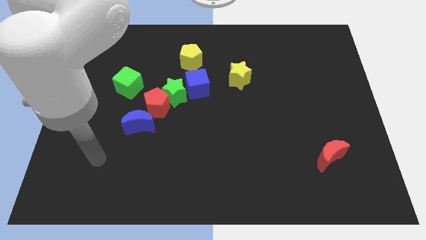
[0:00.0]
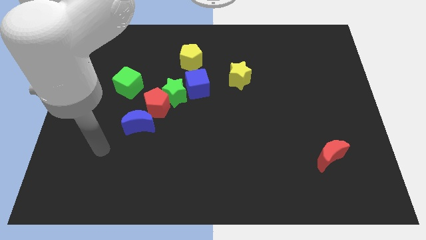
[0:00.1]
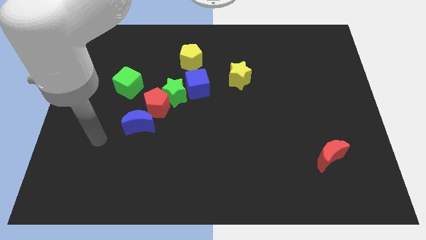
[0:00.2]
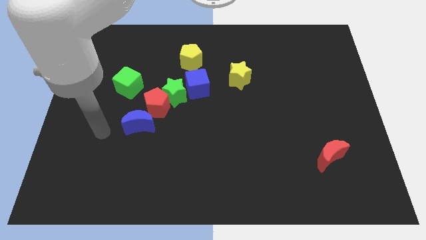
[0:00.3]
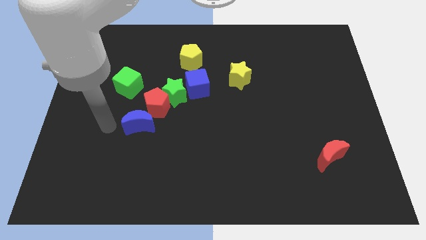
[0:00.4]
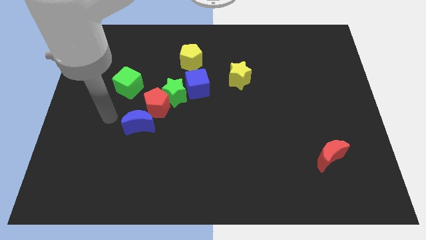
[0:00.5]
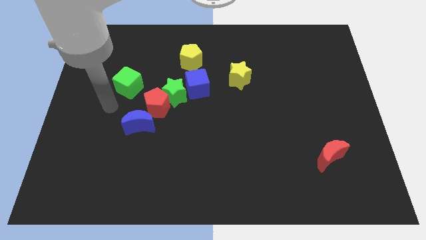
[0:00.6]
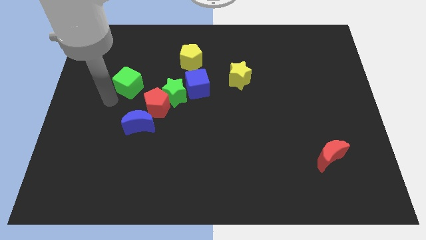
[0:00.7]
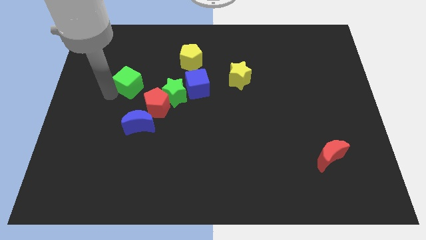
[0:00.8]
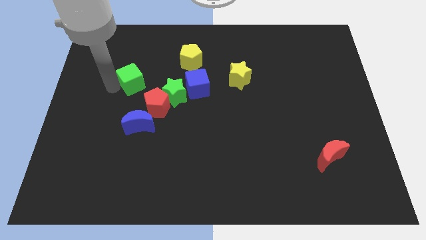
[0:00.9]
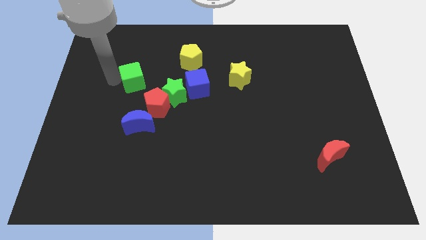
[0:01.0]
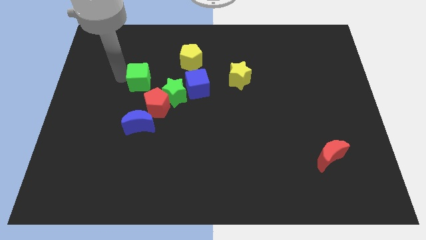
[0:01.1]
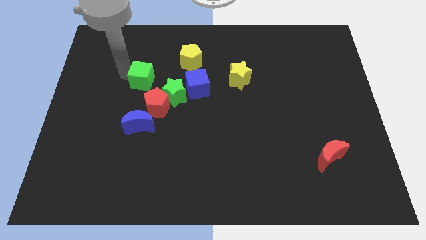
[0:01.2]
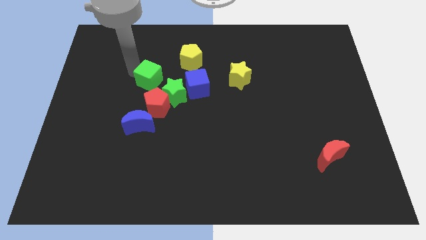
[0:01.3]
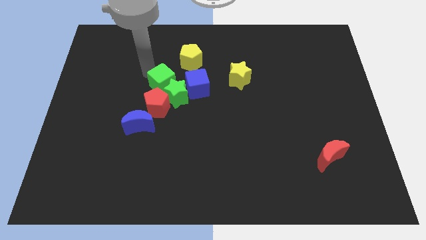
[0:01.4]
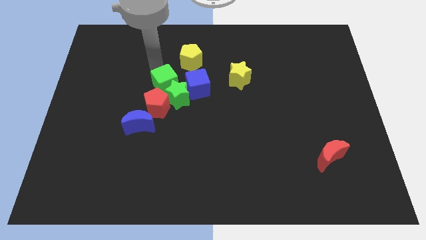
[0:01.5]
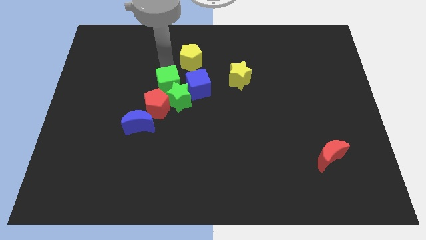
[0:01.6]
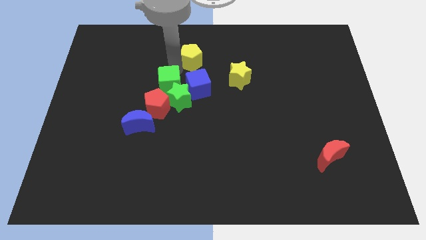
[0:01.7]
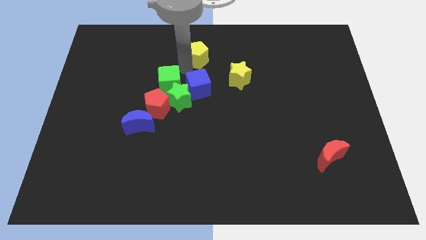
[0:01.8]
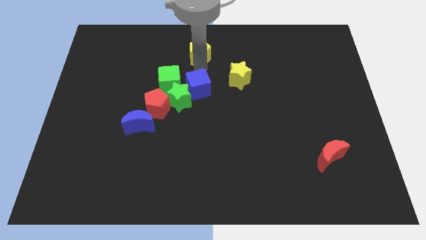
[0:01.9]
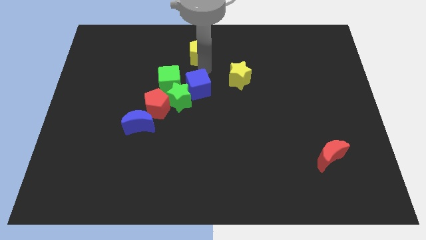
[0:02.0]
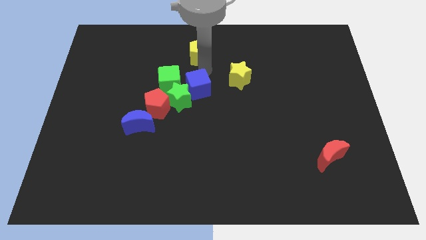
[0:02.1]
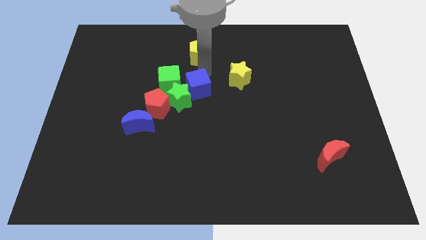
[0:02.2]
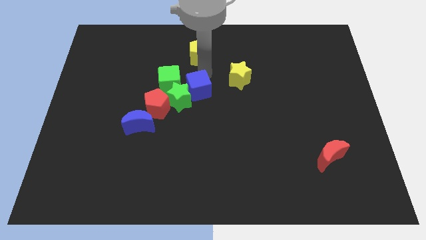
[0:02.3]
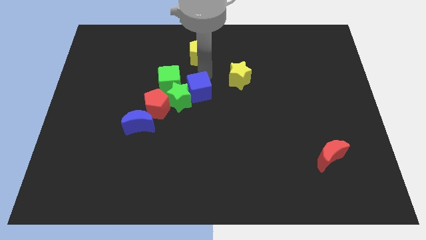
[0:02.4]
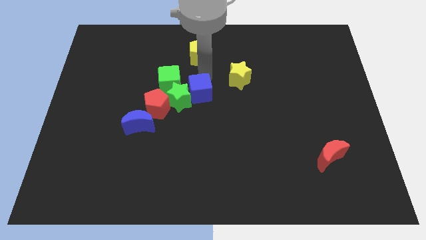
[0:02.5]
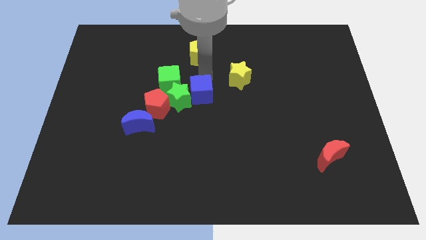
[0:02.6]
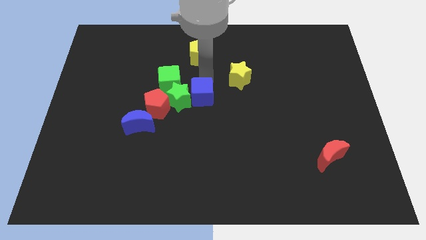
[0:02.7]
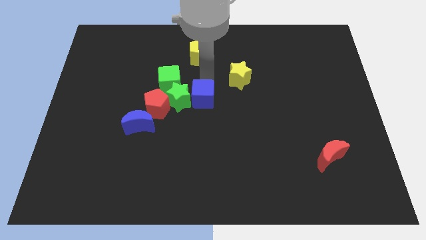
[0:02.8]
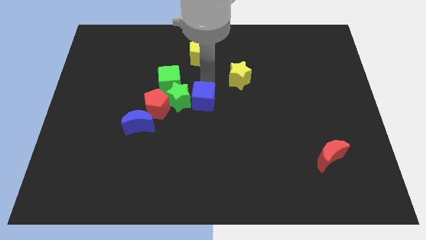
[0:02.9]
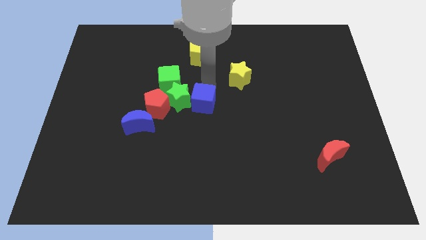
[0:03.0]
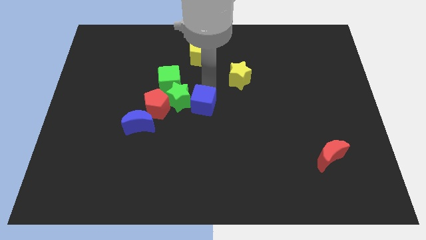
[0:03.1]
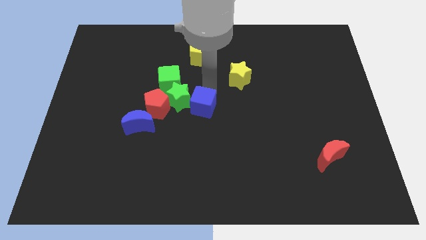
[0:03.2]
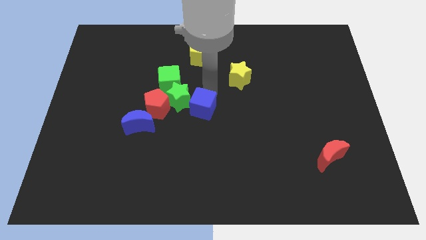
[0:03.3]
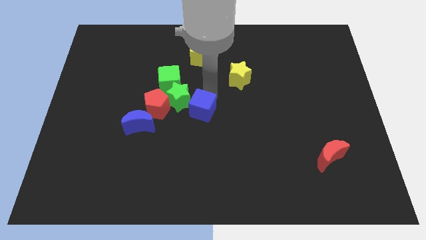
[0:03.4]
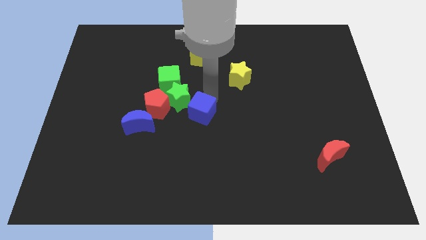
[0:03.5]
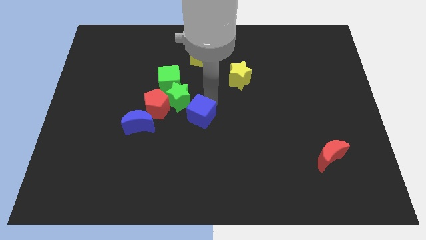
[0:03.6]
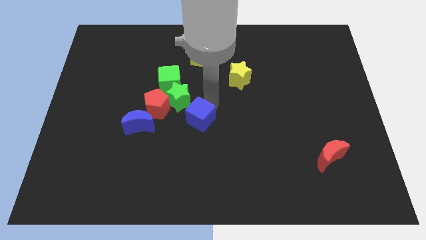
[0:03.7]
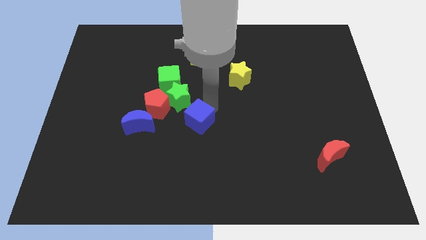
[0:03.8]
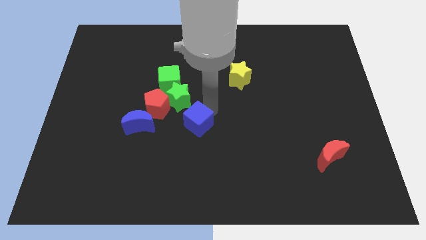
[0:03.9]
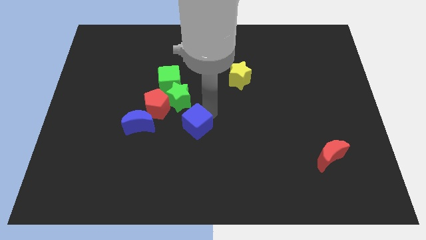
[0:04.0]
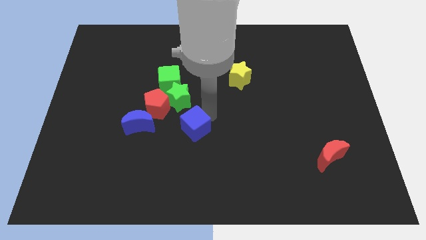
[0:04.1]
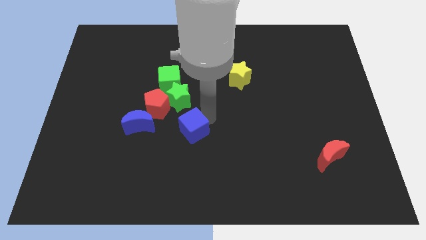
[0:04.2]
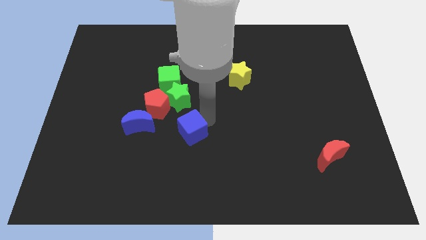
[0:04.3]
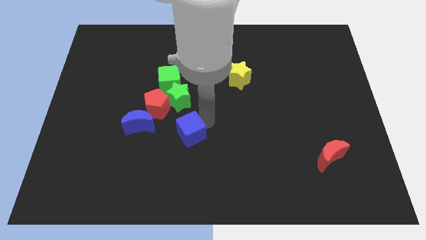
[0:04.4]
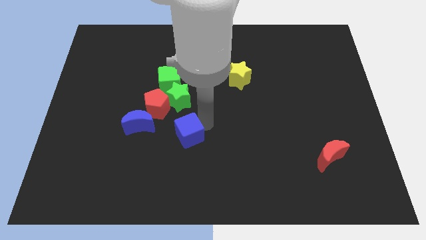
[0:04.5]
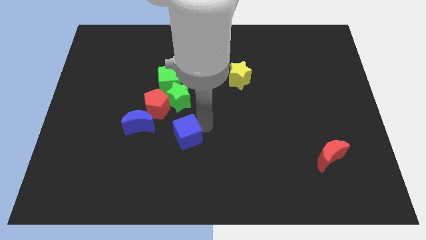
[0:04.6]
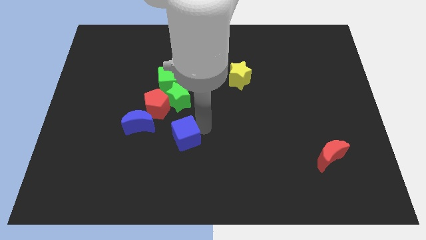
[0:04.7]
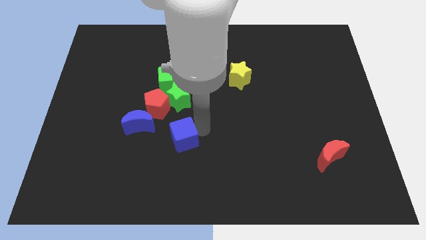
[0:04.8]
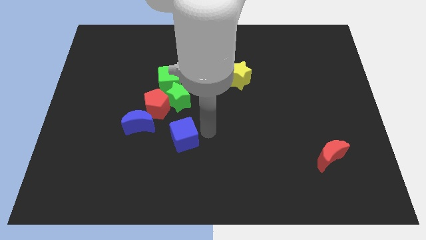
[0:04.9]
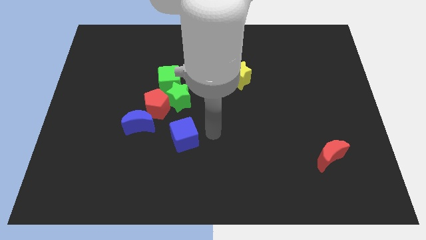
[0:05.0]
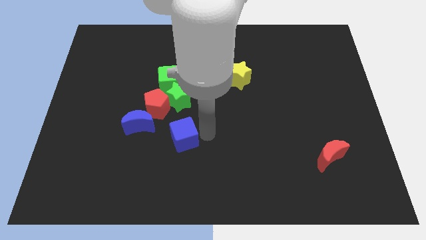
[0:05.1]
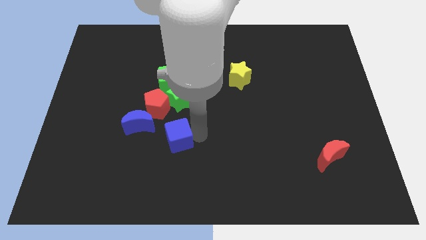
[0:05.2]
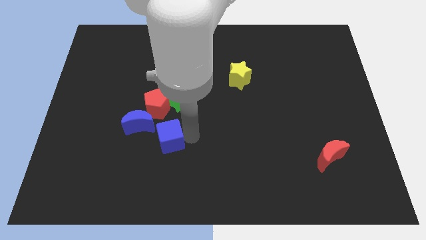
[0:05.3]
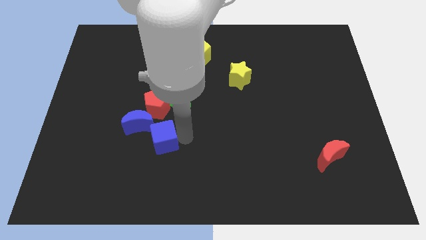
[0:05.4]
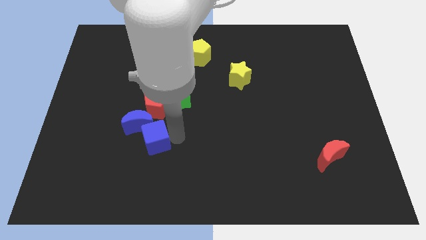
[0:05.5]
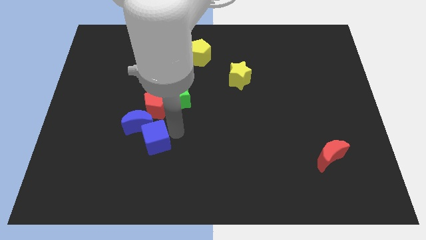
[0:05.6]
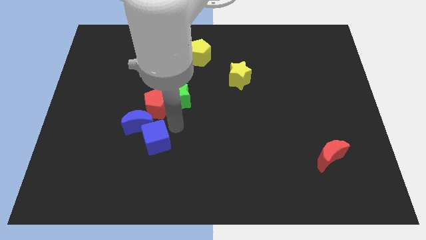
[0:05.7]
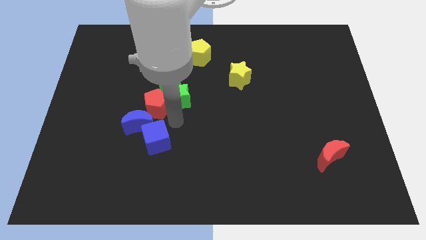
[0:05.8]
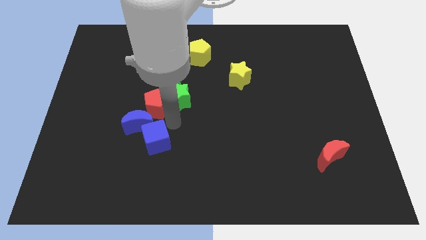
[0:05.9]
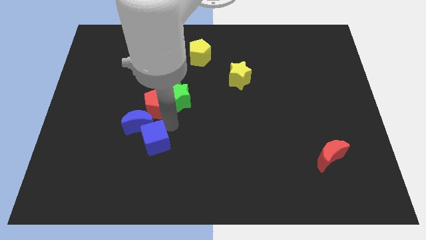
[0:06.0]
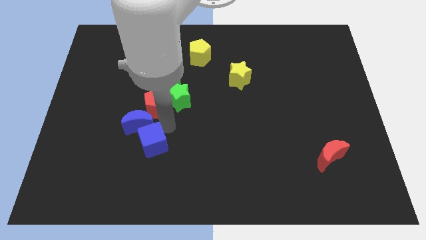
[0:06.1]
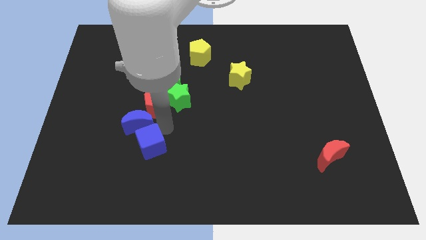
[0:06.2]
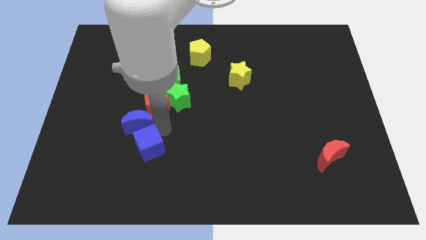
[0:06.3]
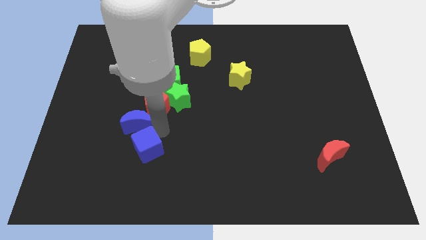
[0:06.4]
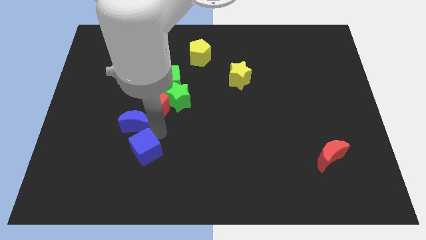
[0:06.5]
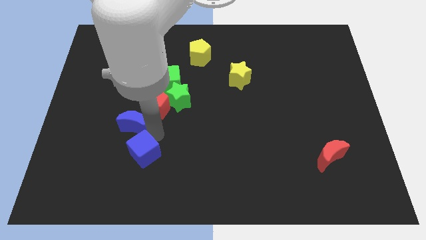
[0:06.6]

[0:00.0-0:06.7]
slide the blue cube diagonally down and to the left

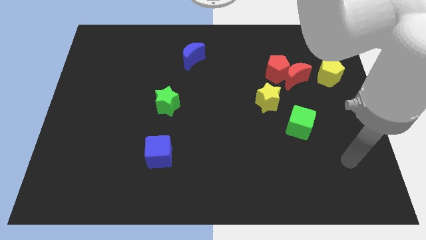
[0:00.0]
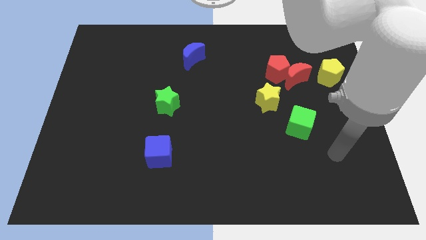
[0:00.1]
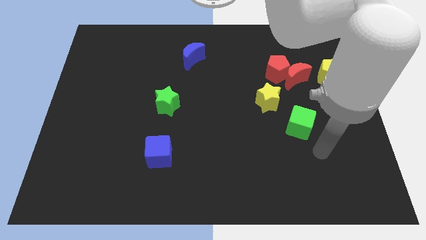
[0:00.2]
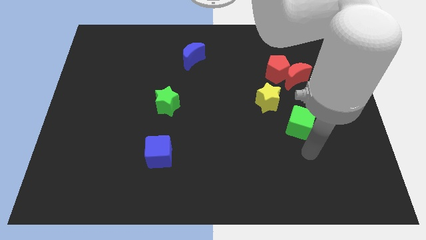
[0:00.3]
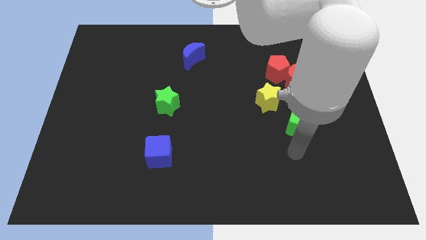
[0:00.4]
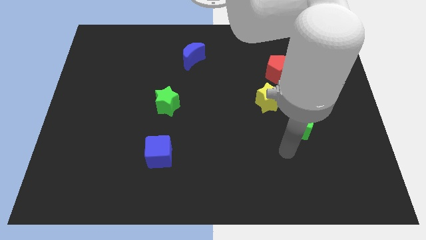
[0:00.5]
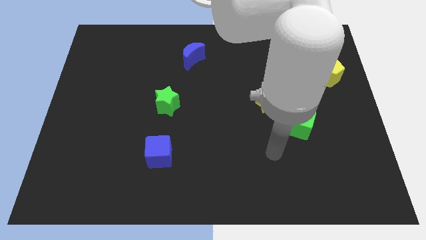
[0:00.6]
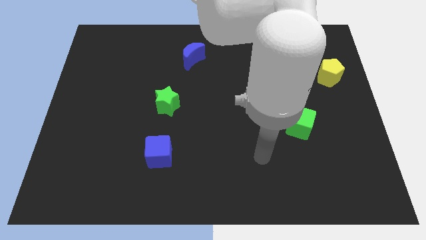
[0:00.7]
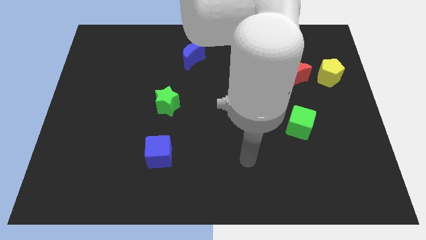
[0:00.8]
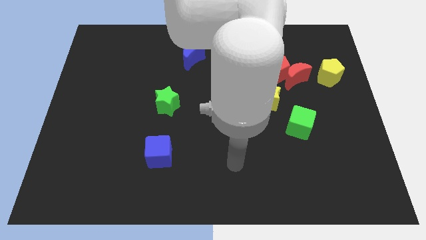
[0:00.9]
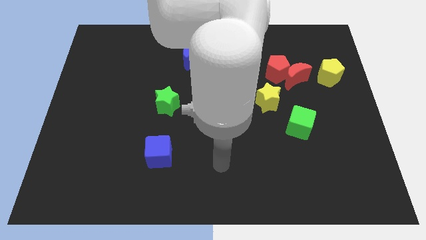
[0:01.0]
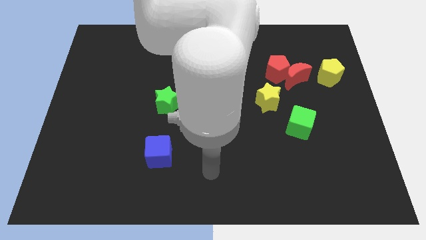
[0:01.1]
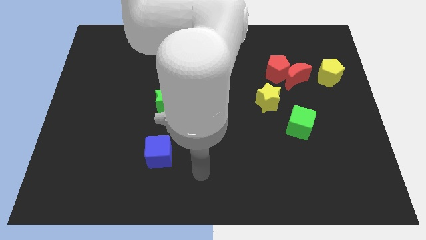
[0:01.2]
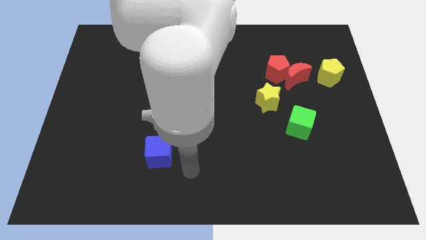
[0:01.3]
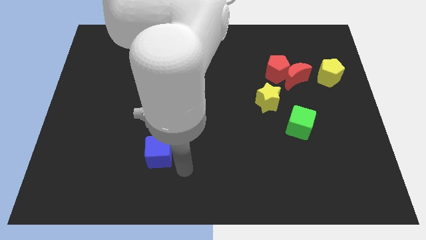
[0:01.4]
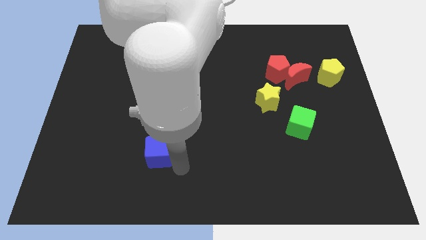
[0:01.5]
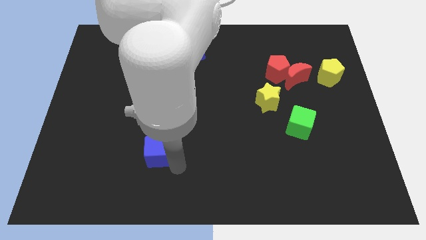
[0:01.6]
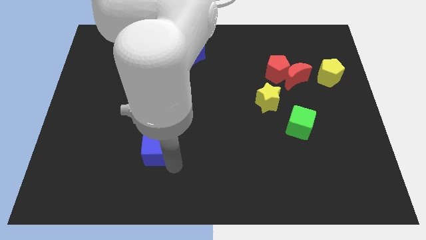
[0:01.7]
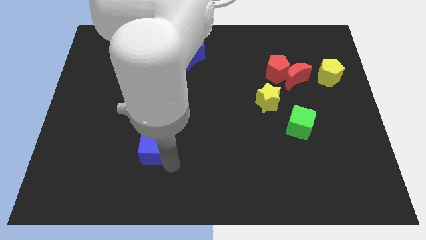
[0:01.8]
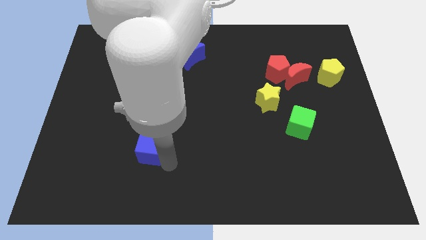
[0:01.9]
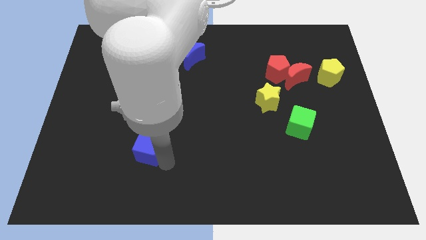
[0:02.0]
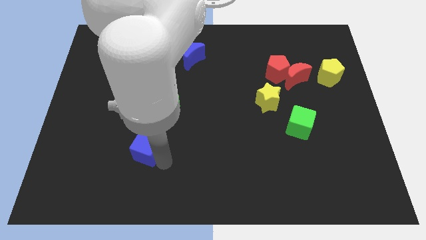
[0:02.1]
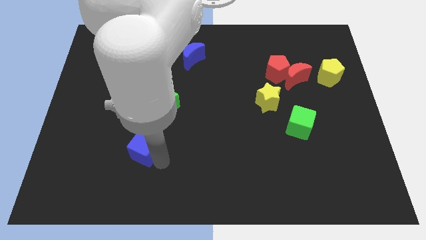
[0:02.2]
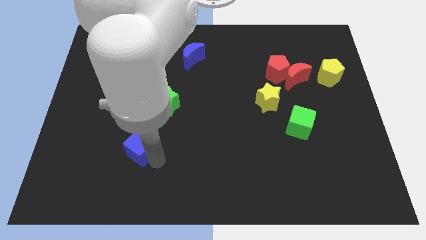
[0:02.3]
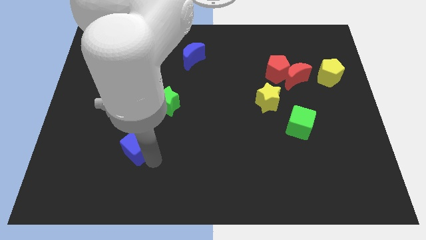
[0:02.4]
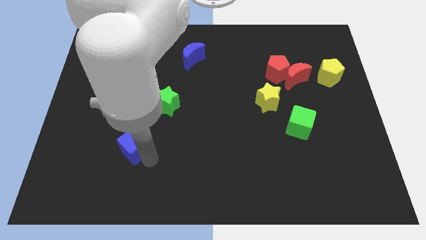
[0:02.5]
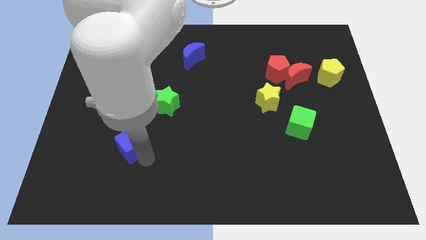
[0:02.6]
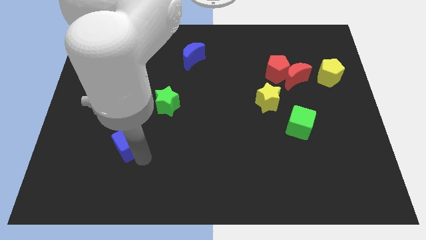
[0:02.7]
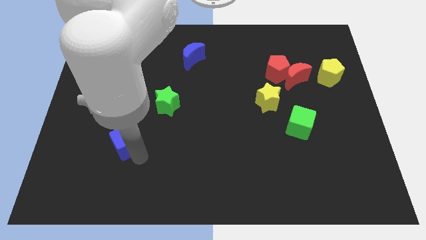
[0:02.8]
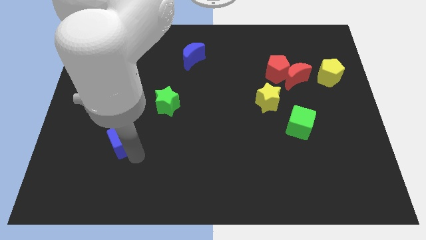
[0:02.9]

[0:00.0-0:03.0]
slide the blue cube slightly up and to the left
